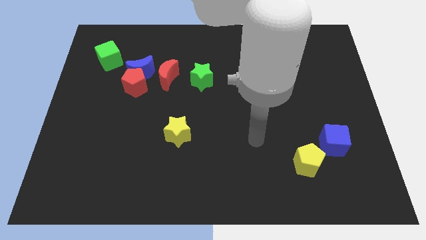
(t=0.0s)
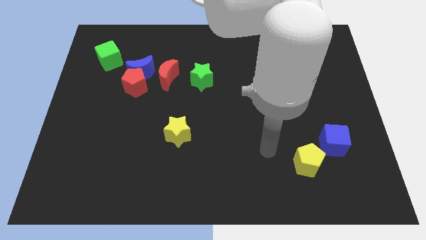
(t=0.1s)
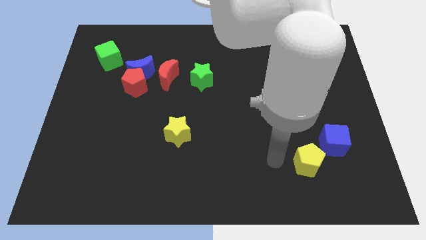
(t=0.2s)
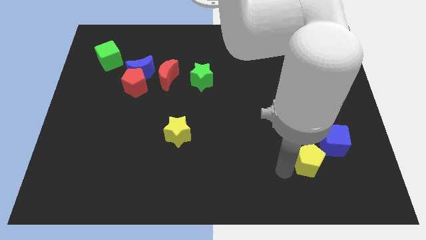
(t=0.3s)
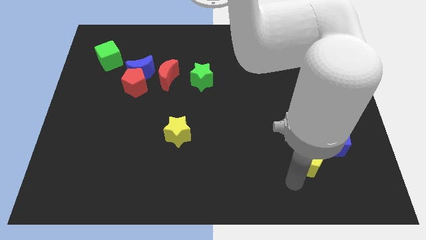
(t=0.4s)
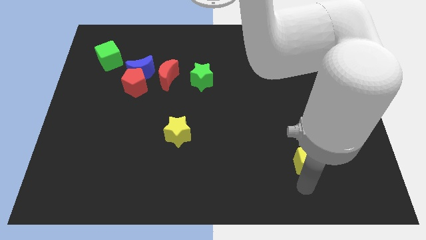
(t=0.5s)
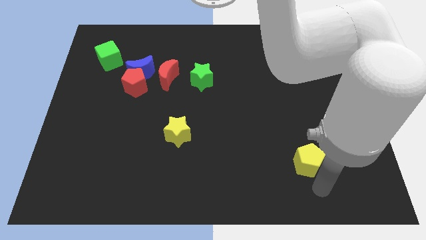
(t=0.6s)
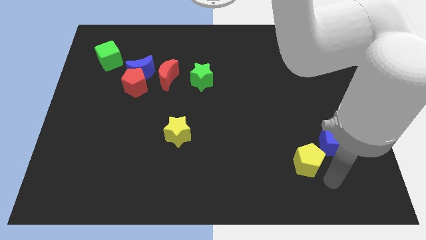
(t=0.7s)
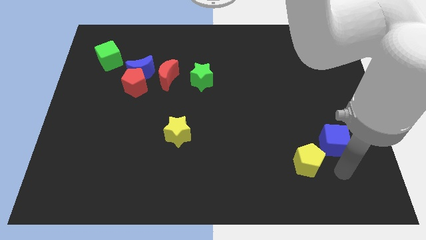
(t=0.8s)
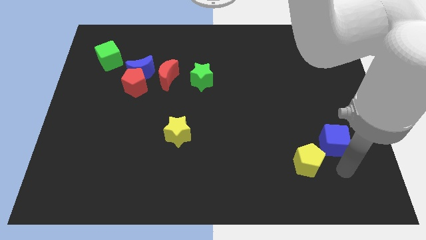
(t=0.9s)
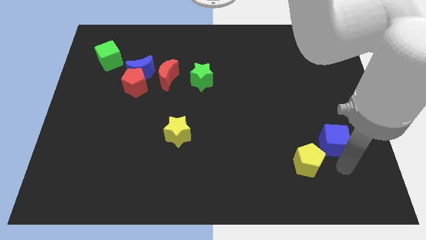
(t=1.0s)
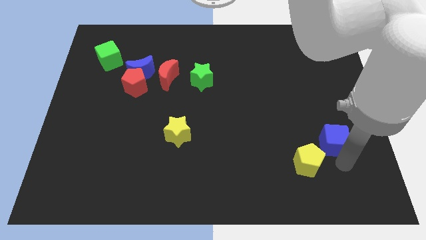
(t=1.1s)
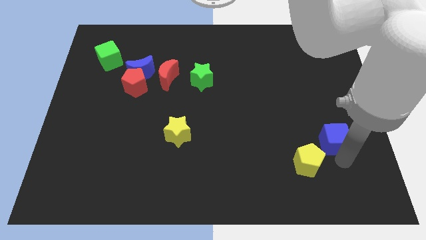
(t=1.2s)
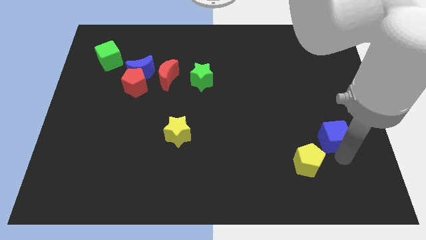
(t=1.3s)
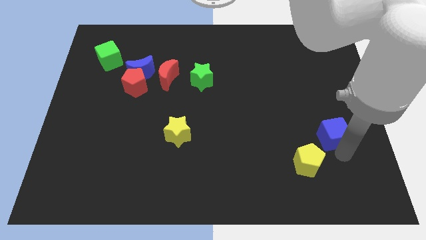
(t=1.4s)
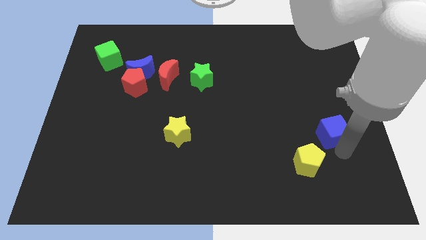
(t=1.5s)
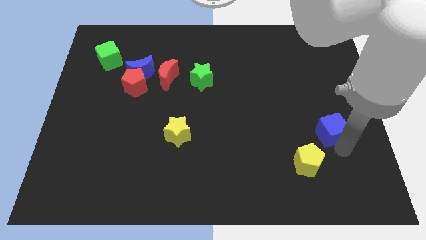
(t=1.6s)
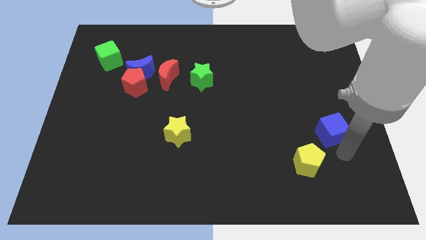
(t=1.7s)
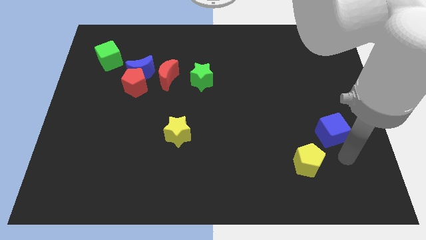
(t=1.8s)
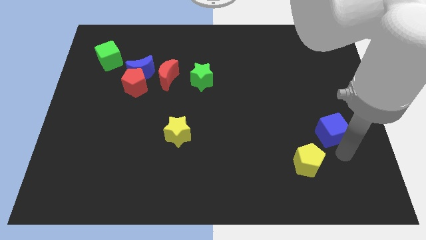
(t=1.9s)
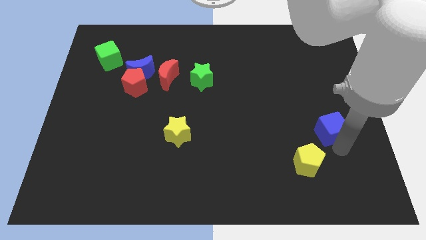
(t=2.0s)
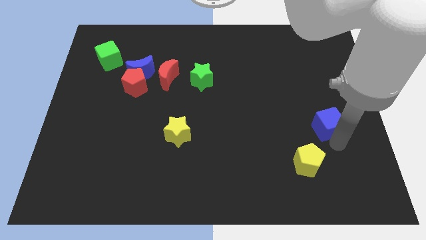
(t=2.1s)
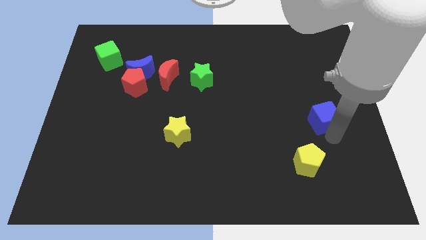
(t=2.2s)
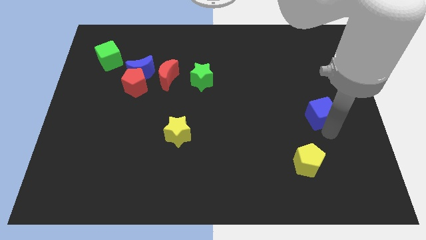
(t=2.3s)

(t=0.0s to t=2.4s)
slightly push the blue cube up

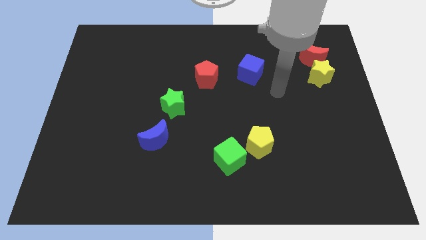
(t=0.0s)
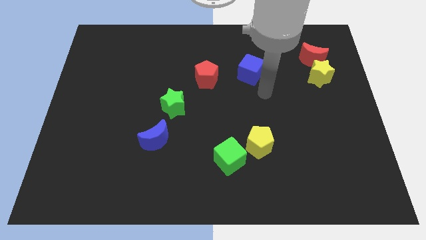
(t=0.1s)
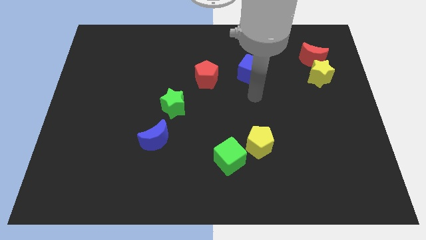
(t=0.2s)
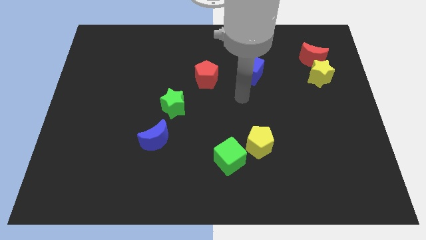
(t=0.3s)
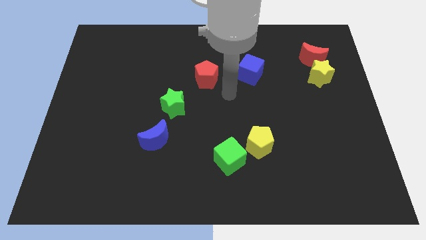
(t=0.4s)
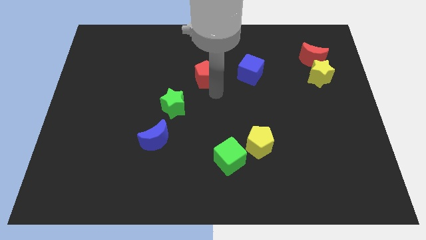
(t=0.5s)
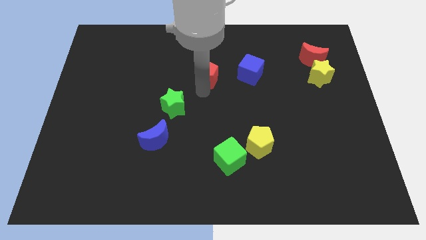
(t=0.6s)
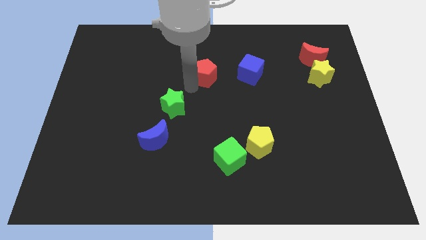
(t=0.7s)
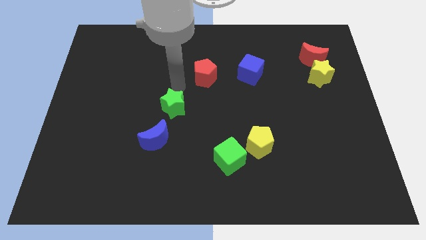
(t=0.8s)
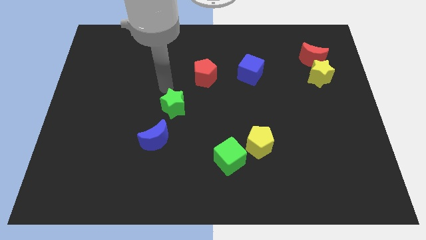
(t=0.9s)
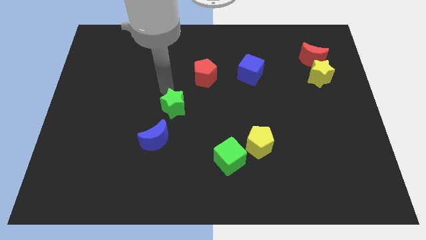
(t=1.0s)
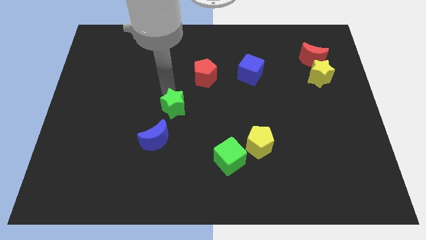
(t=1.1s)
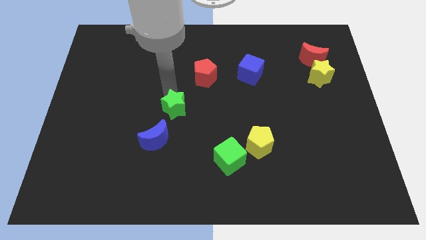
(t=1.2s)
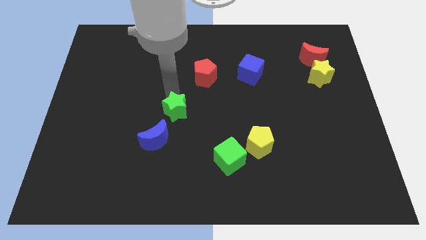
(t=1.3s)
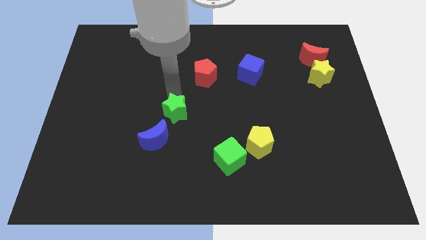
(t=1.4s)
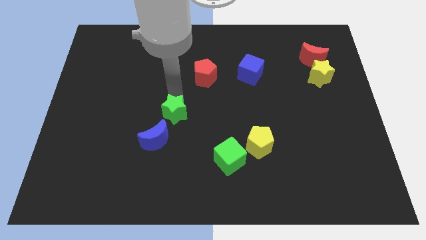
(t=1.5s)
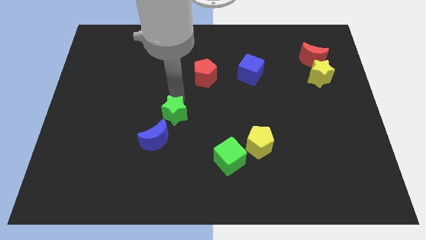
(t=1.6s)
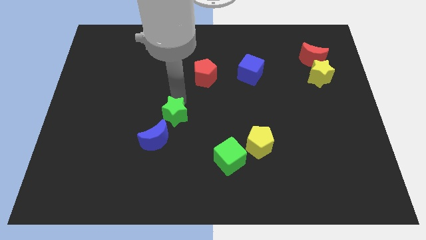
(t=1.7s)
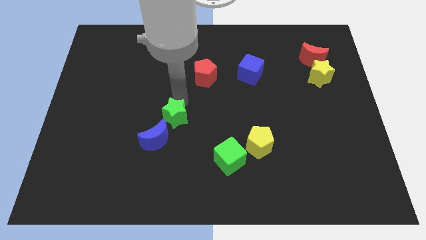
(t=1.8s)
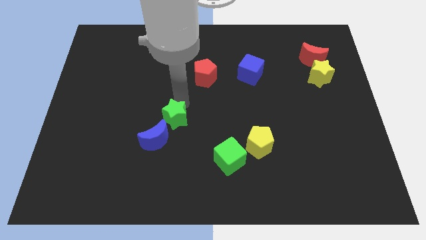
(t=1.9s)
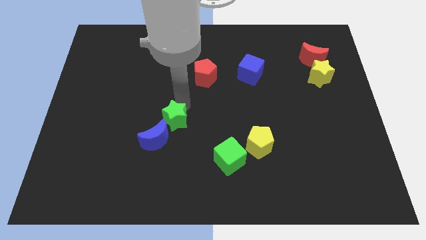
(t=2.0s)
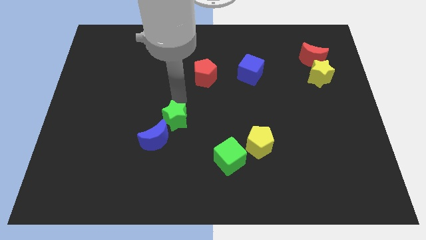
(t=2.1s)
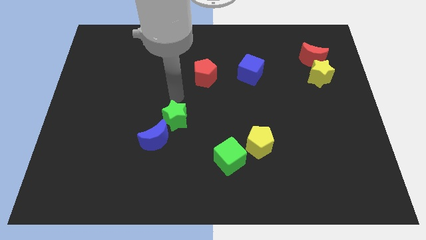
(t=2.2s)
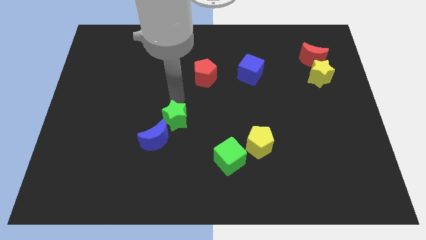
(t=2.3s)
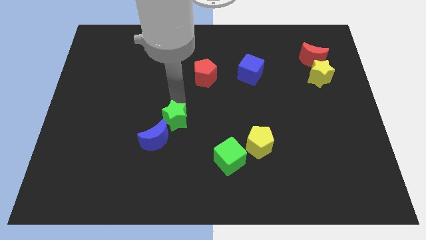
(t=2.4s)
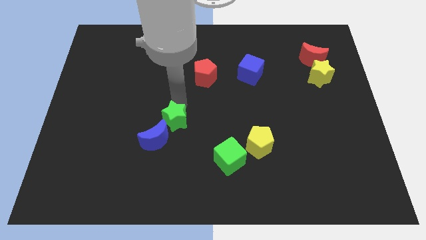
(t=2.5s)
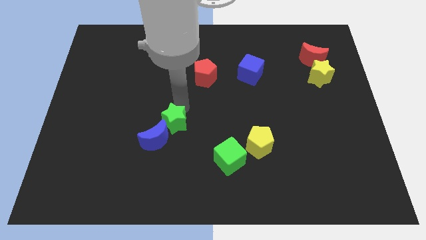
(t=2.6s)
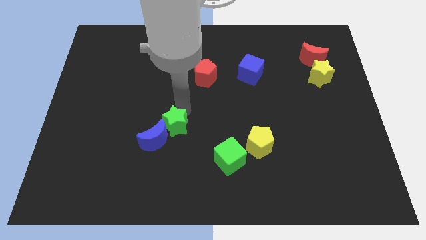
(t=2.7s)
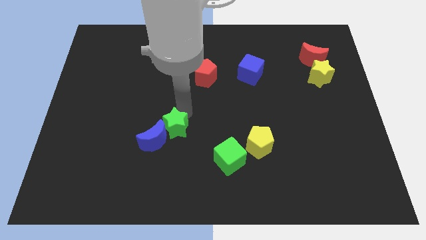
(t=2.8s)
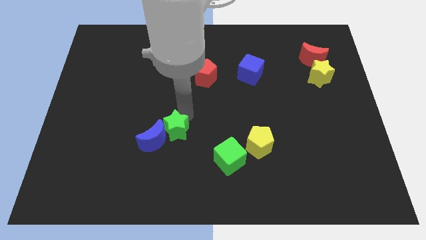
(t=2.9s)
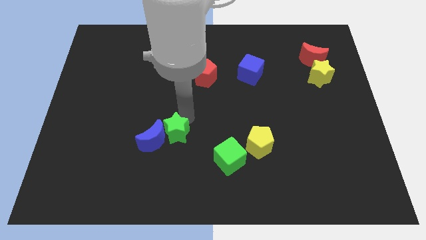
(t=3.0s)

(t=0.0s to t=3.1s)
slightly slide the green star down

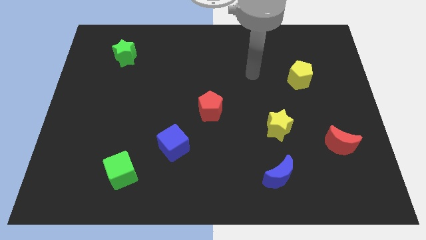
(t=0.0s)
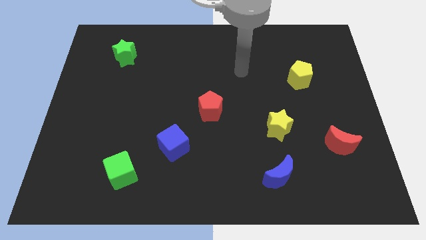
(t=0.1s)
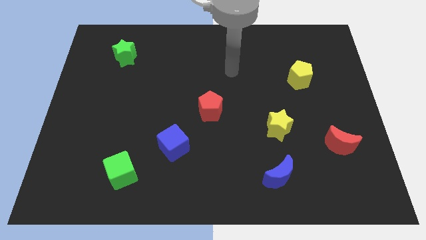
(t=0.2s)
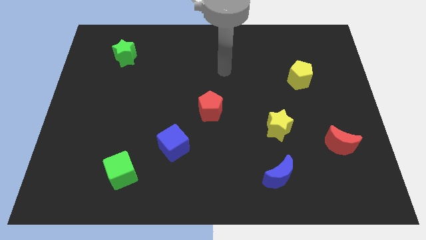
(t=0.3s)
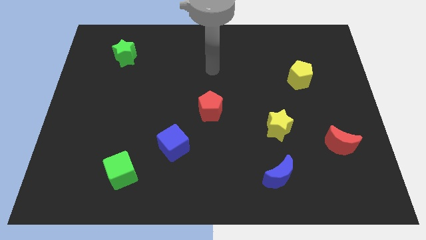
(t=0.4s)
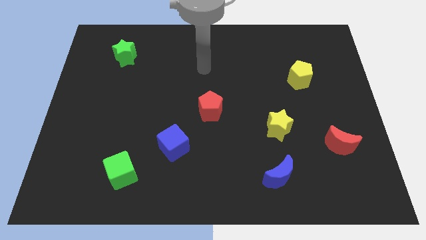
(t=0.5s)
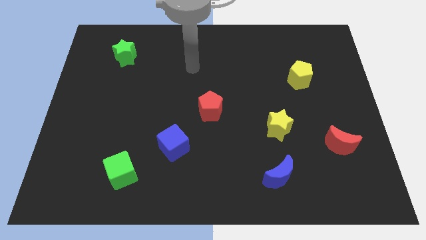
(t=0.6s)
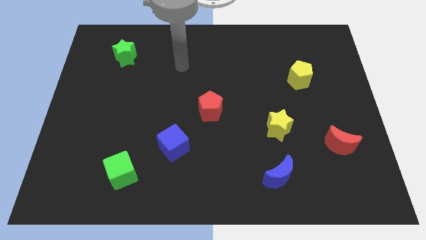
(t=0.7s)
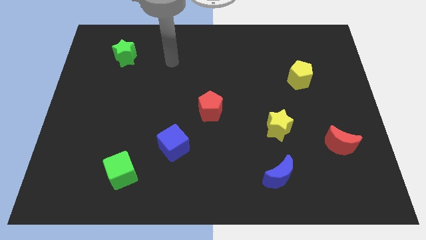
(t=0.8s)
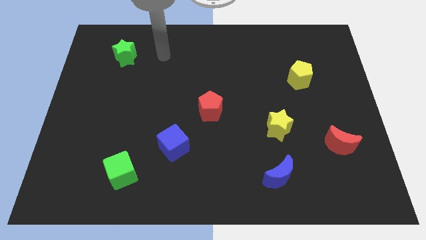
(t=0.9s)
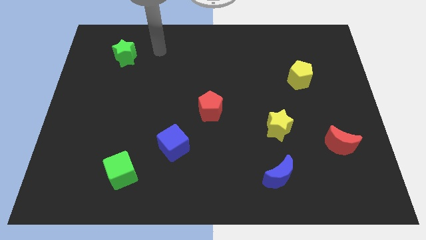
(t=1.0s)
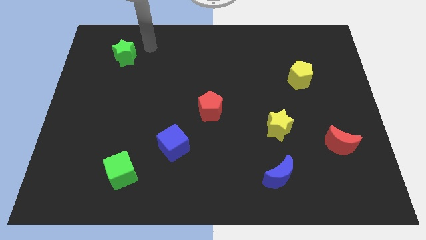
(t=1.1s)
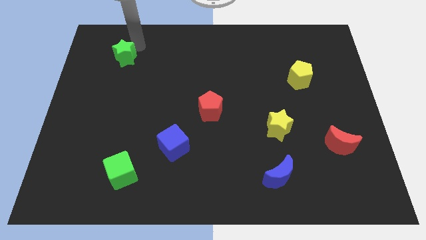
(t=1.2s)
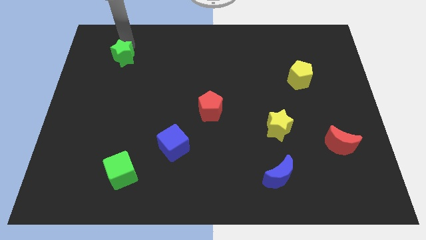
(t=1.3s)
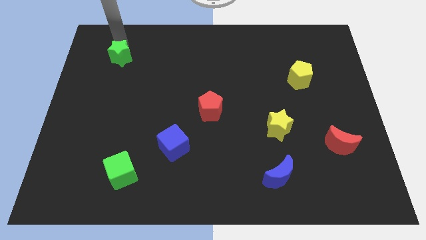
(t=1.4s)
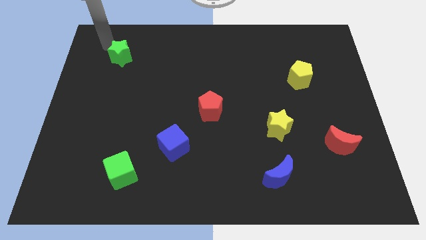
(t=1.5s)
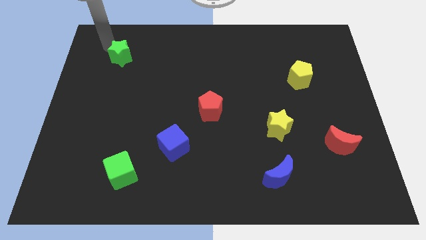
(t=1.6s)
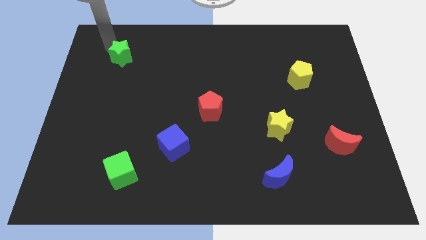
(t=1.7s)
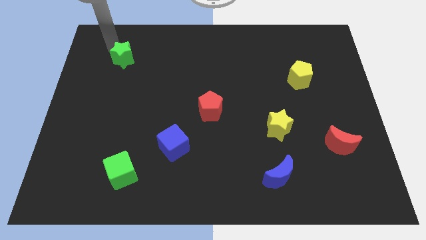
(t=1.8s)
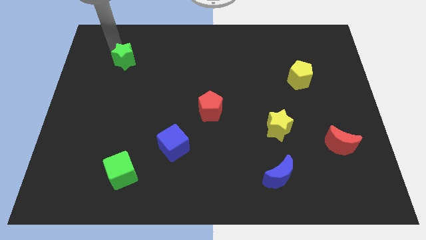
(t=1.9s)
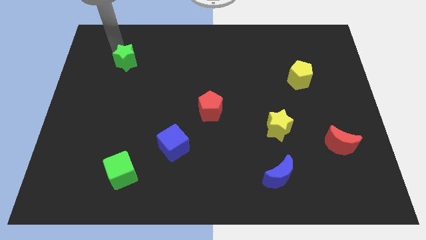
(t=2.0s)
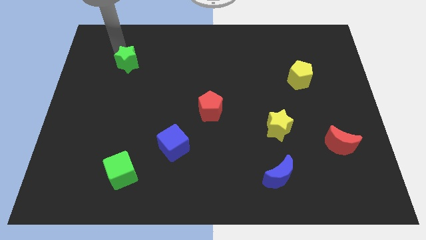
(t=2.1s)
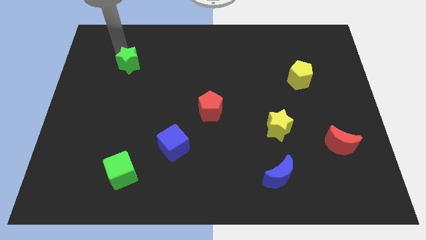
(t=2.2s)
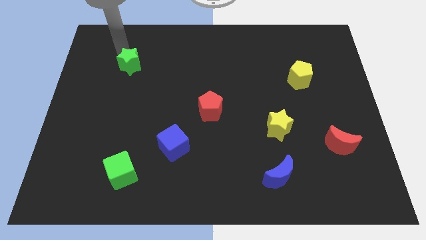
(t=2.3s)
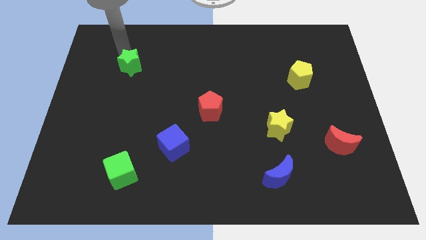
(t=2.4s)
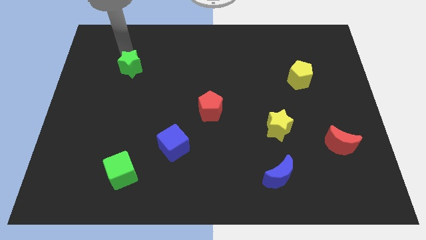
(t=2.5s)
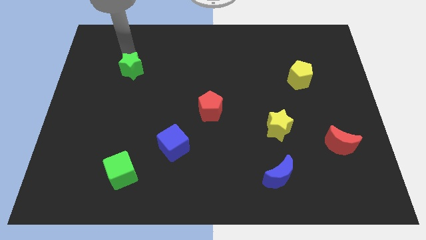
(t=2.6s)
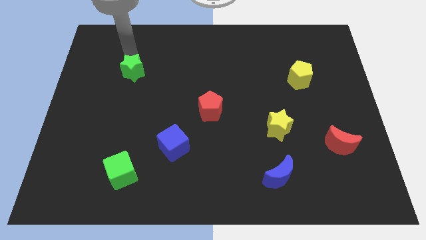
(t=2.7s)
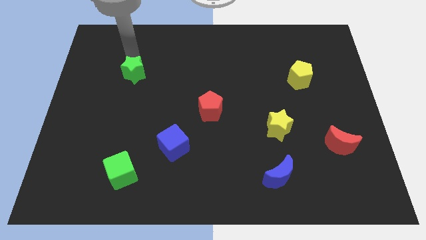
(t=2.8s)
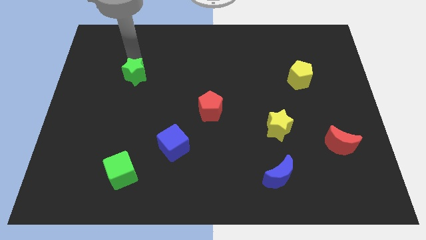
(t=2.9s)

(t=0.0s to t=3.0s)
slide the green star somewhat down and right diagonally
